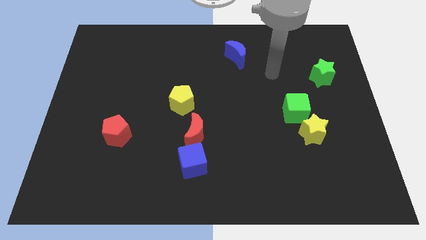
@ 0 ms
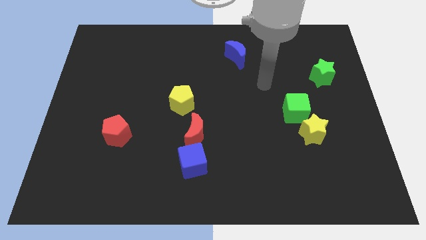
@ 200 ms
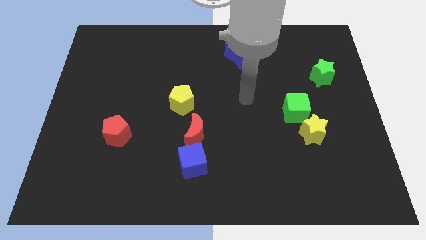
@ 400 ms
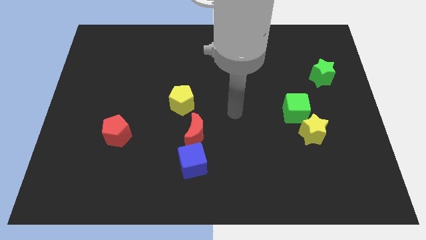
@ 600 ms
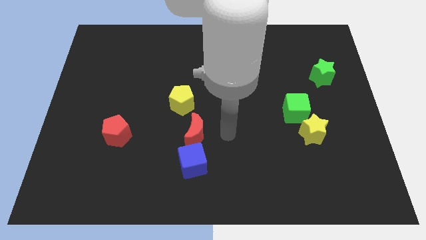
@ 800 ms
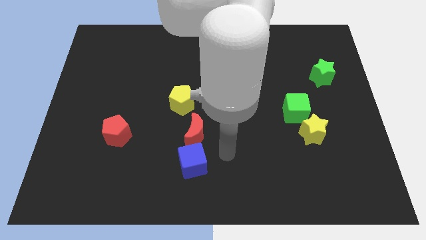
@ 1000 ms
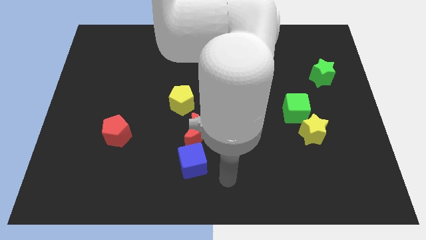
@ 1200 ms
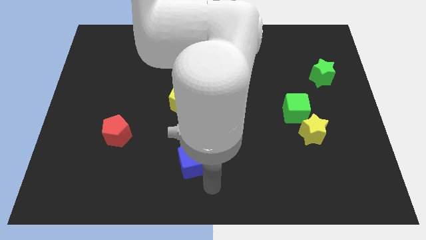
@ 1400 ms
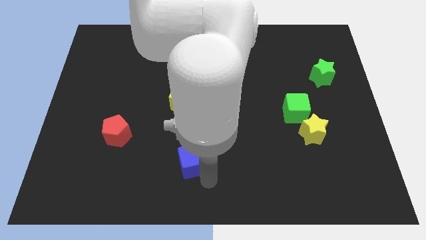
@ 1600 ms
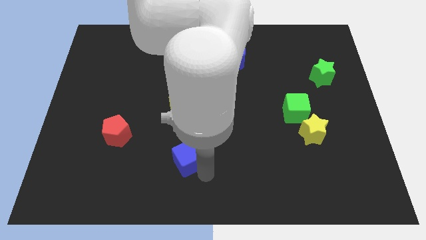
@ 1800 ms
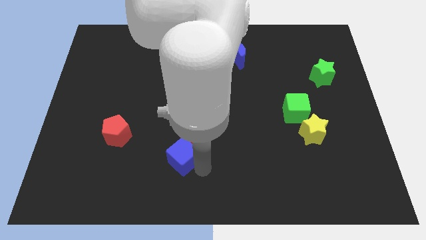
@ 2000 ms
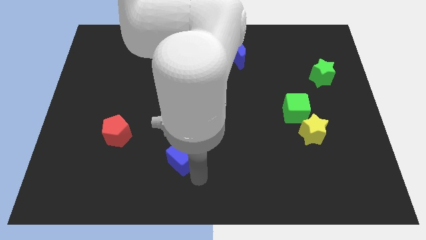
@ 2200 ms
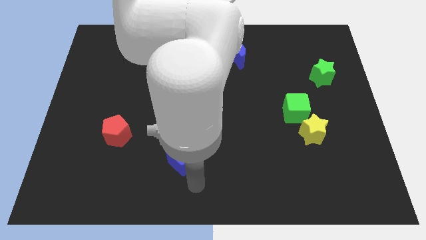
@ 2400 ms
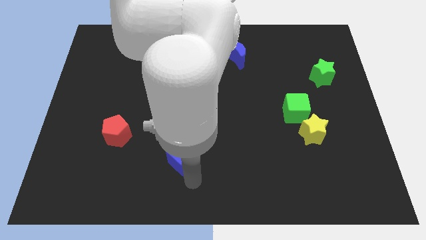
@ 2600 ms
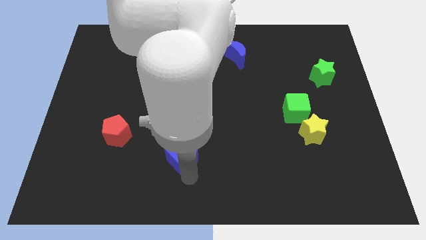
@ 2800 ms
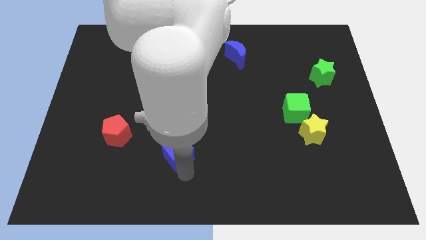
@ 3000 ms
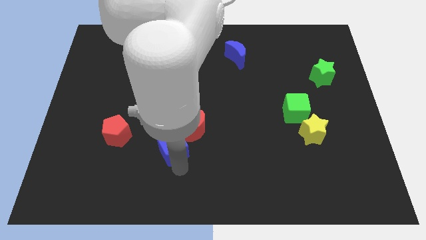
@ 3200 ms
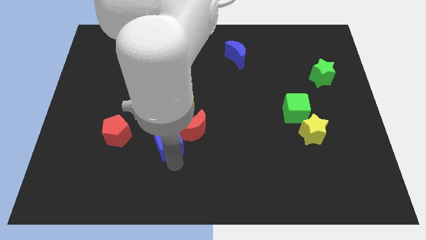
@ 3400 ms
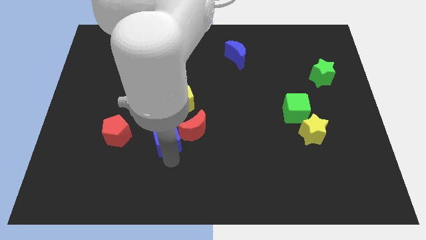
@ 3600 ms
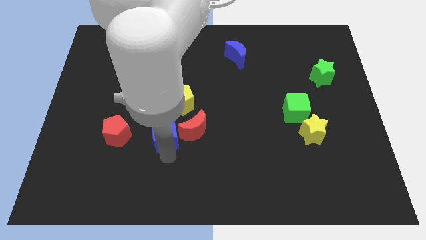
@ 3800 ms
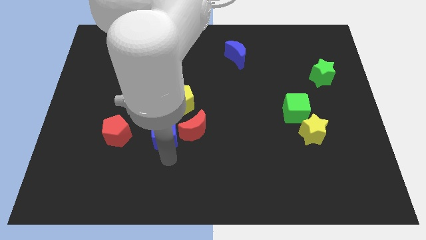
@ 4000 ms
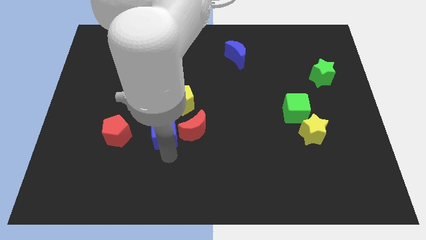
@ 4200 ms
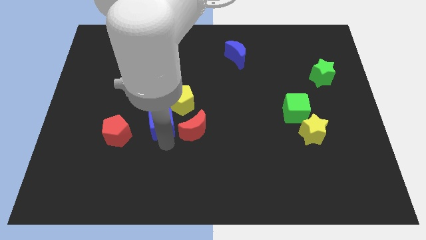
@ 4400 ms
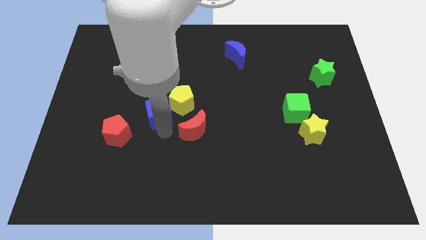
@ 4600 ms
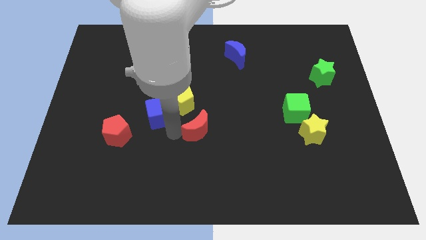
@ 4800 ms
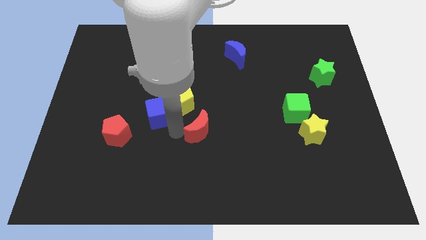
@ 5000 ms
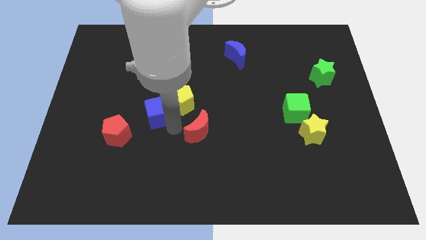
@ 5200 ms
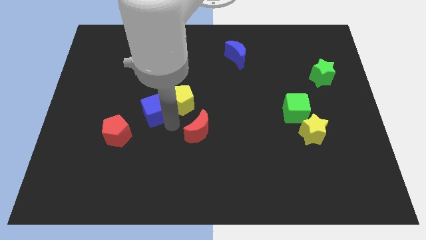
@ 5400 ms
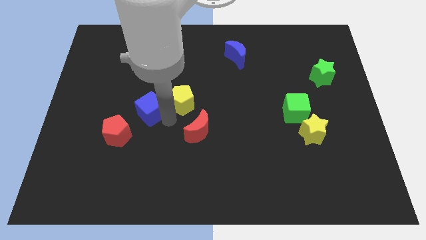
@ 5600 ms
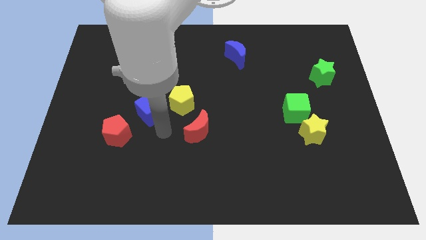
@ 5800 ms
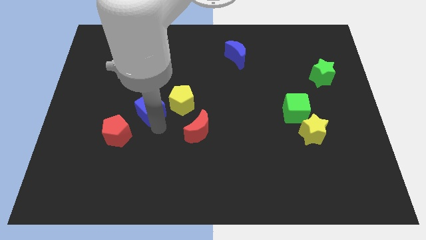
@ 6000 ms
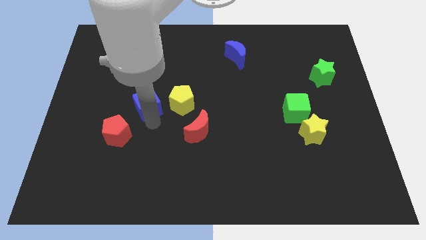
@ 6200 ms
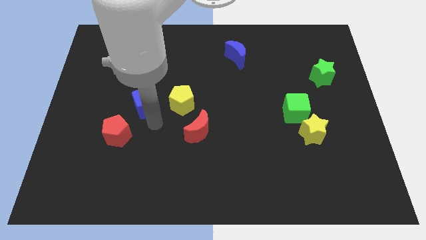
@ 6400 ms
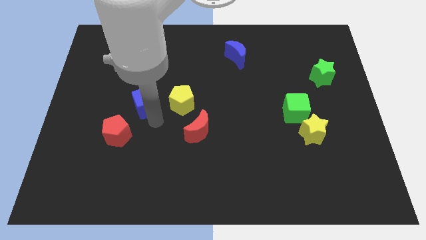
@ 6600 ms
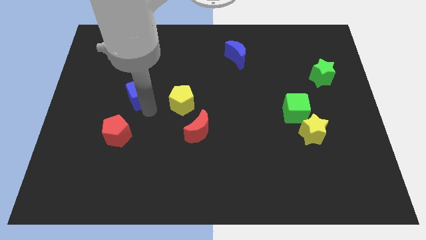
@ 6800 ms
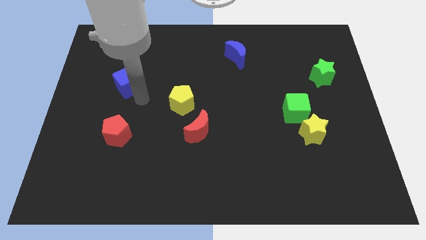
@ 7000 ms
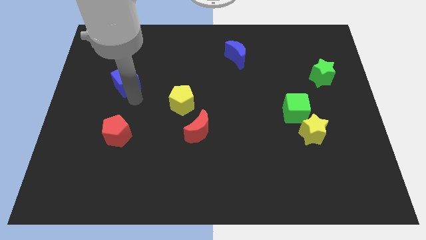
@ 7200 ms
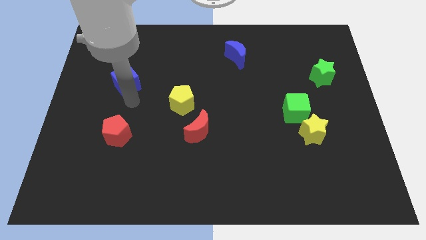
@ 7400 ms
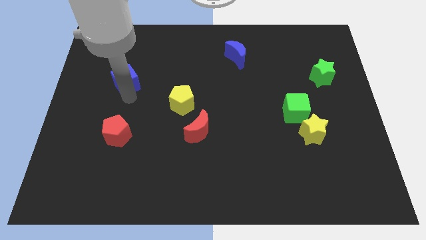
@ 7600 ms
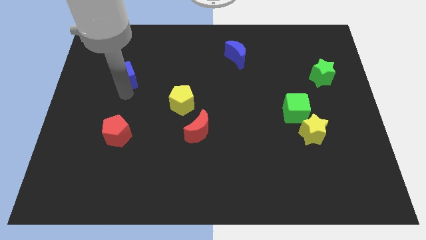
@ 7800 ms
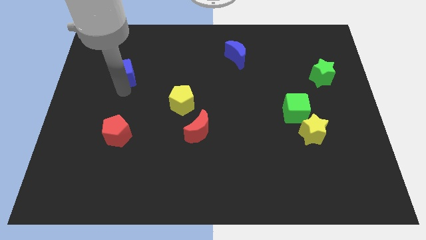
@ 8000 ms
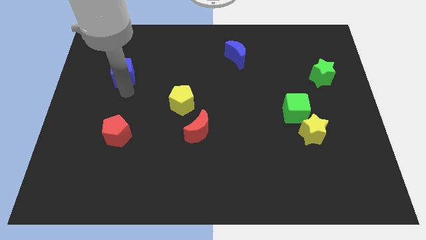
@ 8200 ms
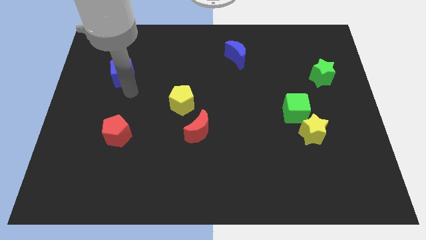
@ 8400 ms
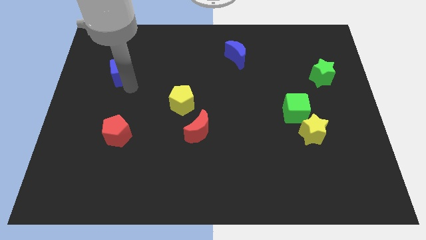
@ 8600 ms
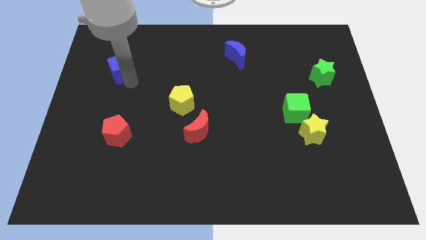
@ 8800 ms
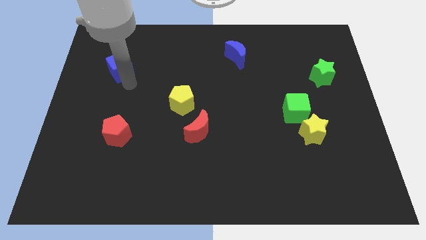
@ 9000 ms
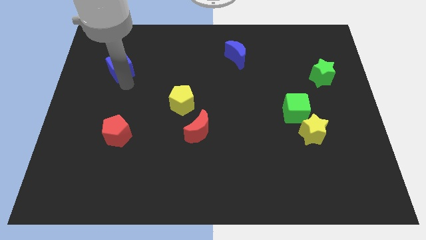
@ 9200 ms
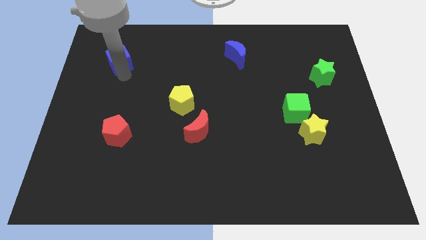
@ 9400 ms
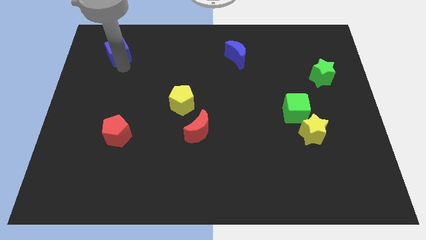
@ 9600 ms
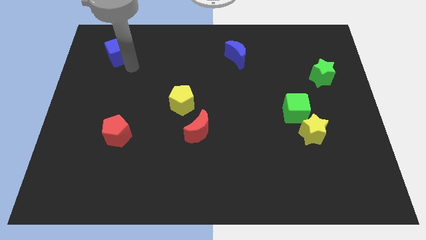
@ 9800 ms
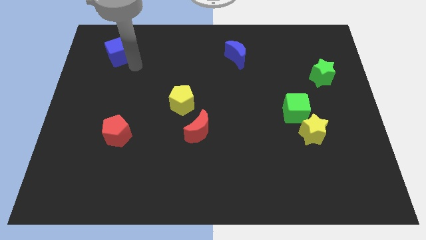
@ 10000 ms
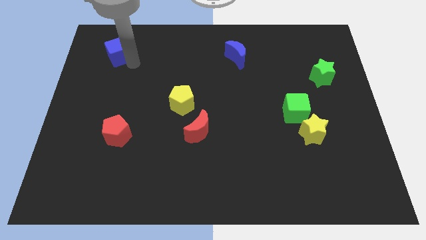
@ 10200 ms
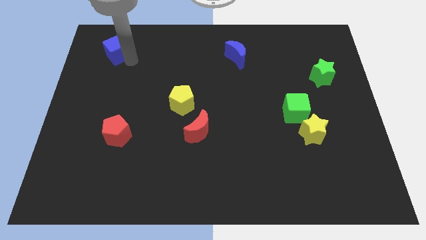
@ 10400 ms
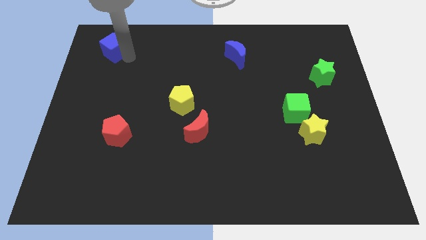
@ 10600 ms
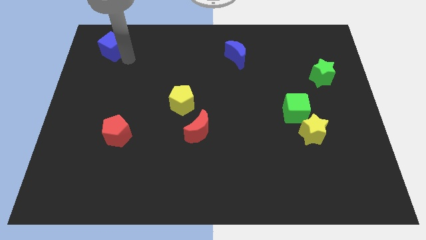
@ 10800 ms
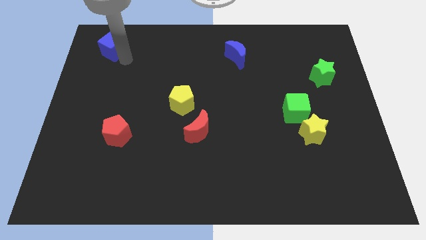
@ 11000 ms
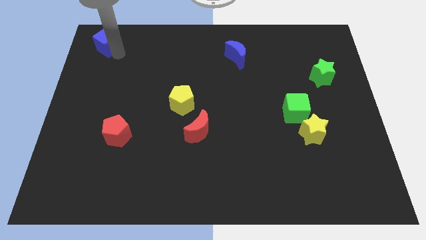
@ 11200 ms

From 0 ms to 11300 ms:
slide the blue cube to the top left of the board
